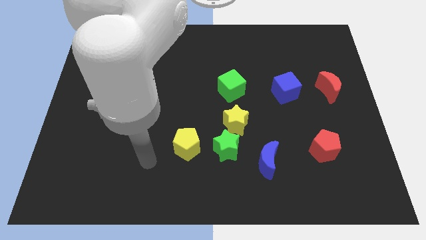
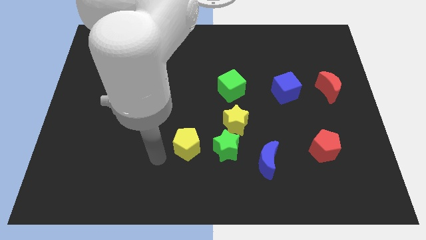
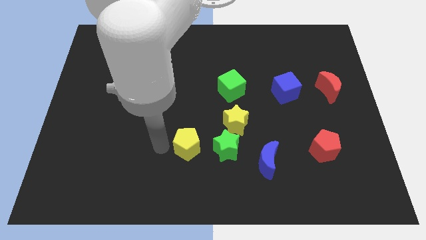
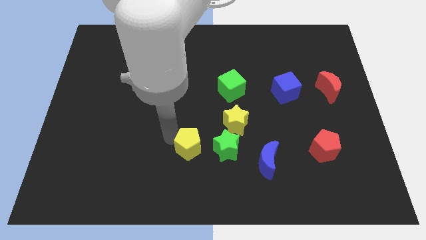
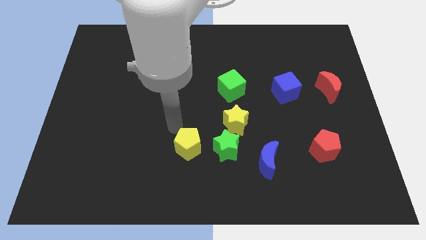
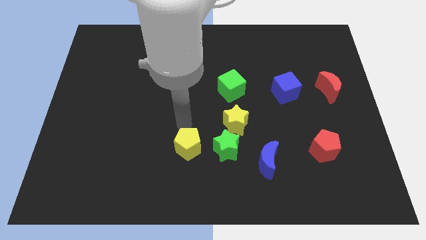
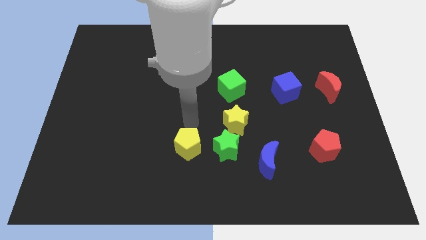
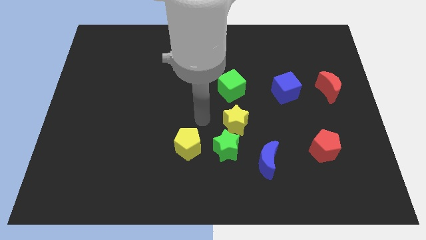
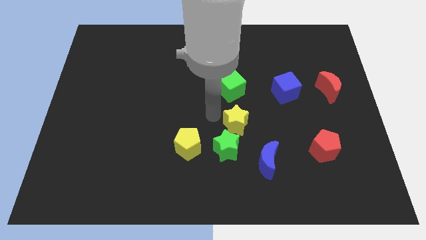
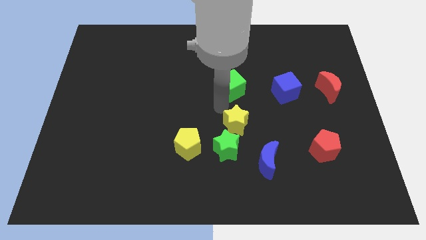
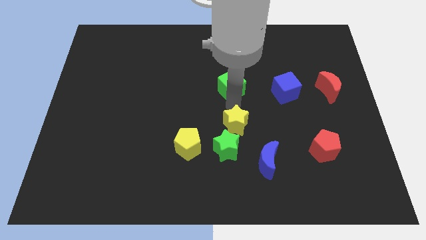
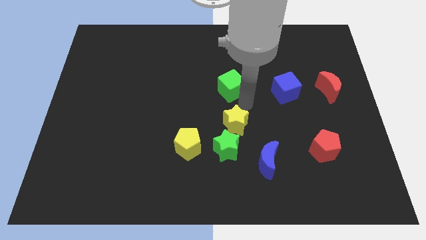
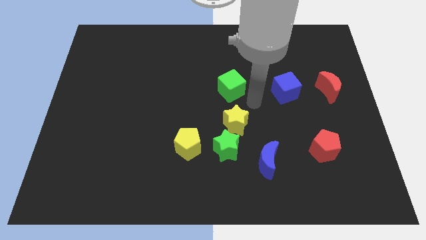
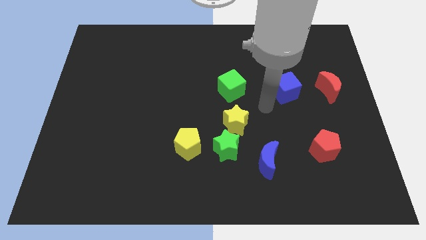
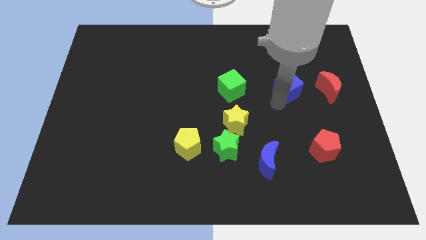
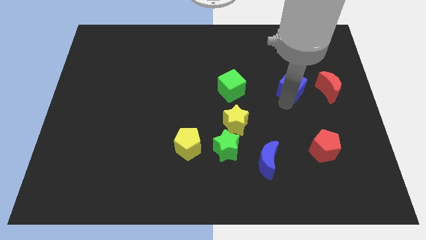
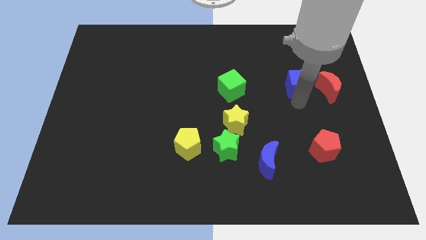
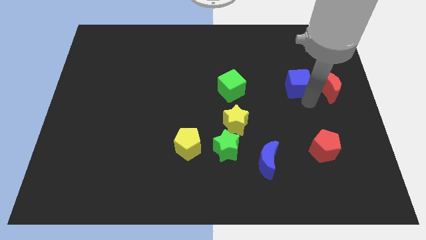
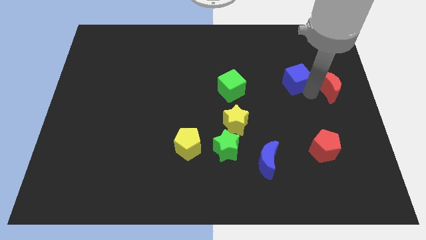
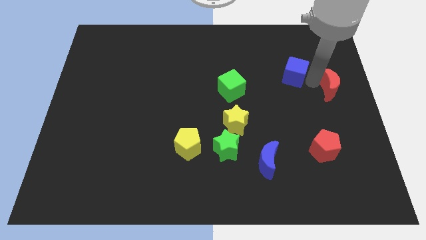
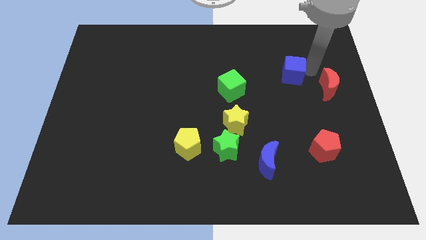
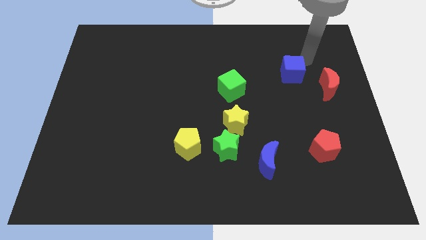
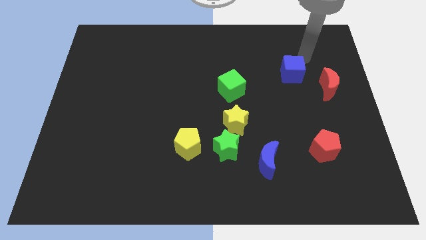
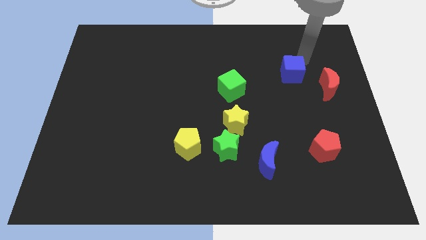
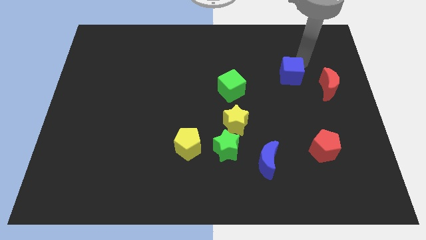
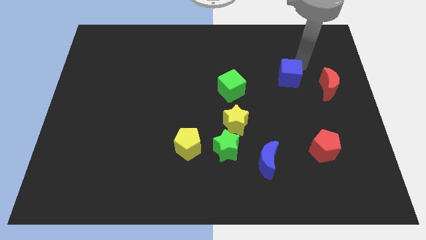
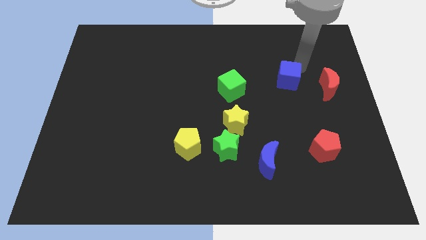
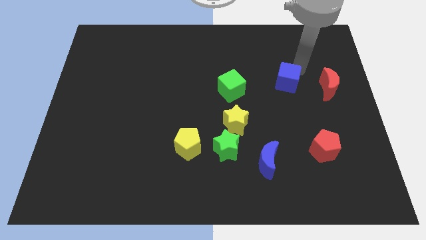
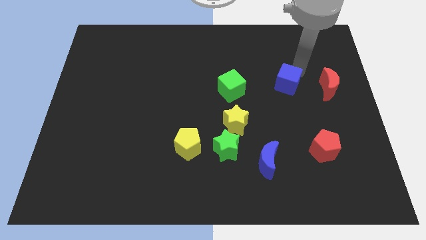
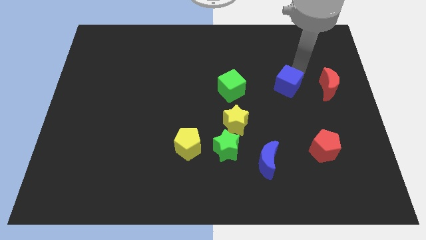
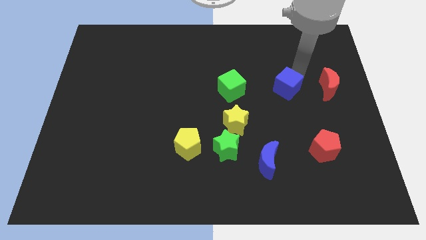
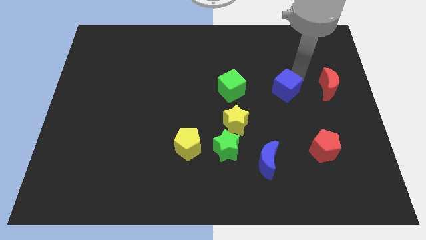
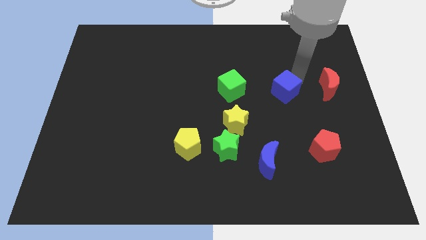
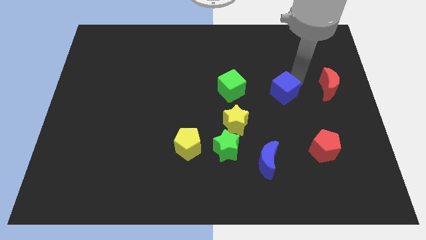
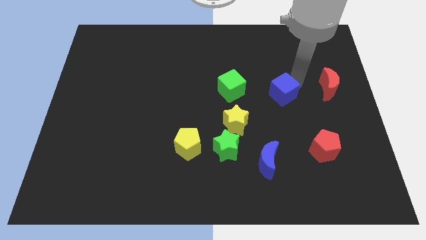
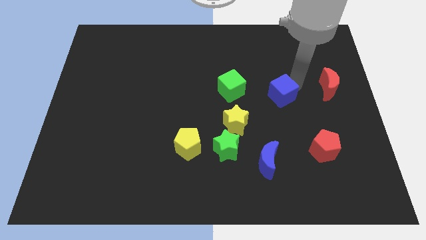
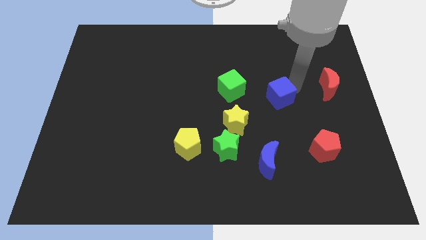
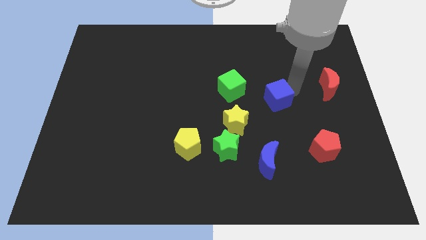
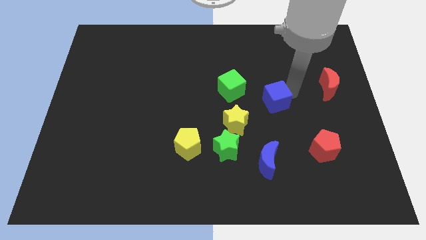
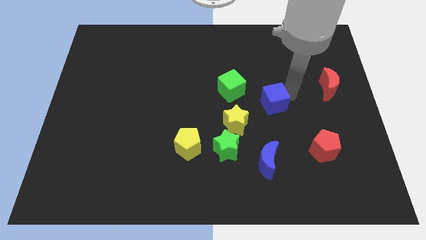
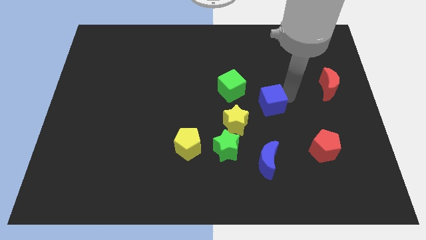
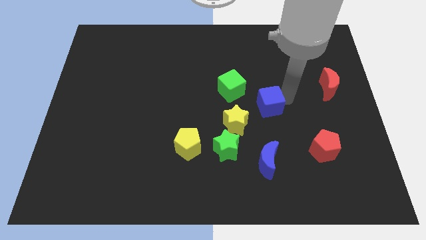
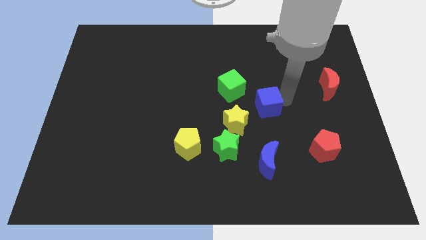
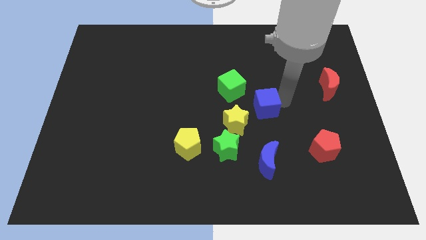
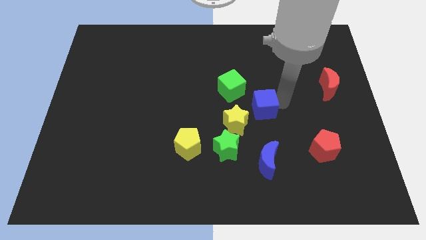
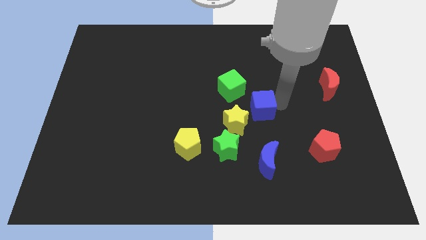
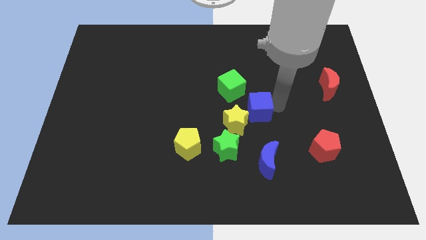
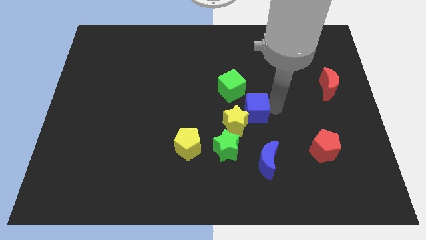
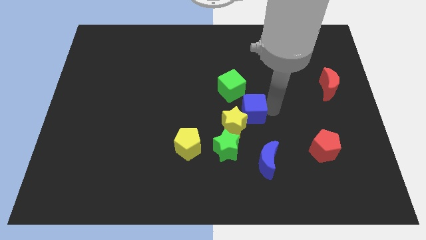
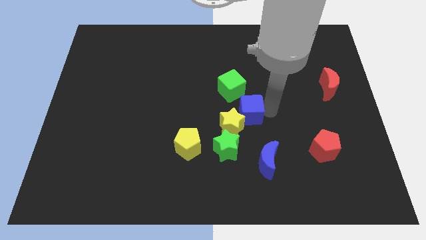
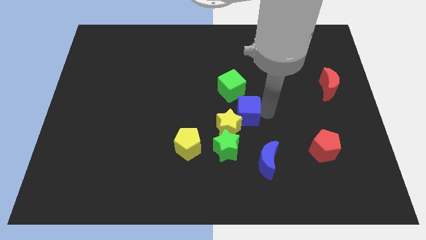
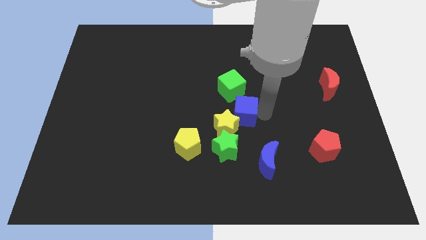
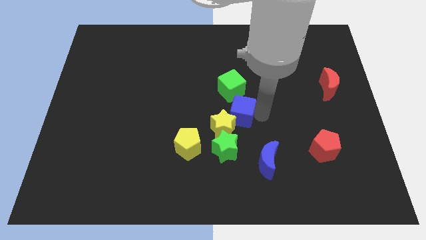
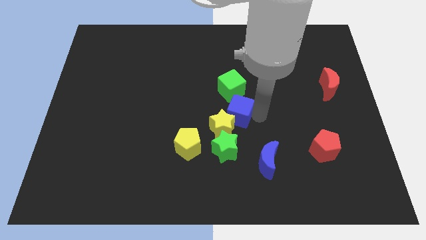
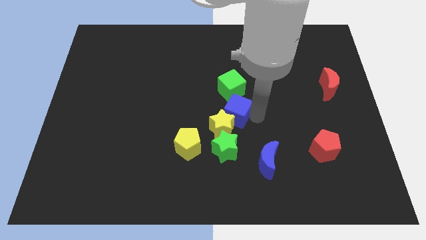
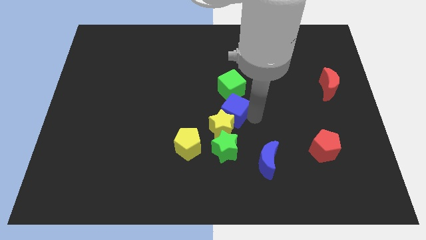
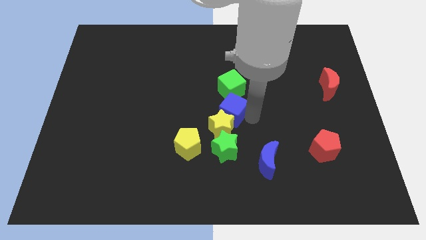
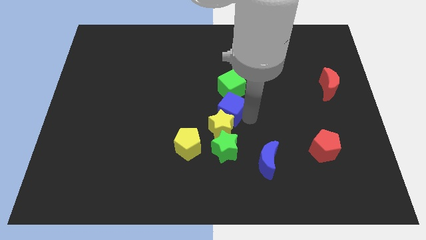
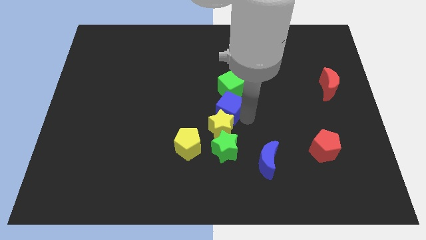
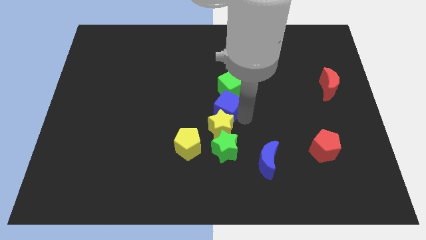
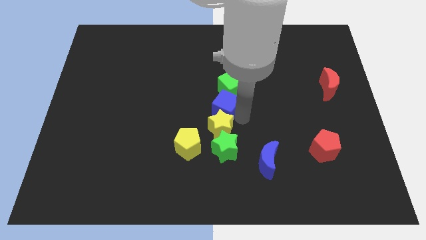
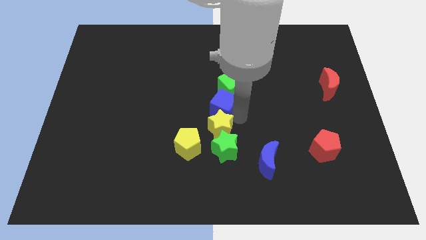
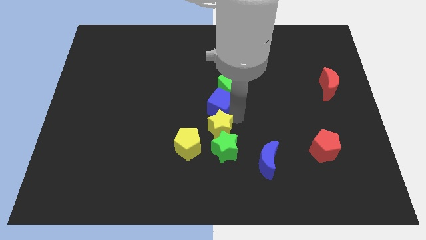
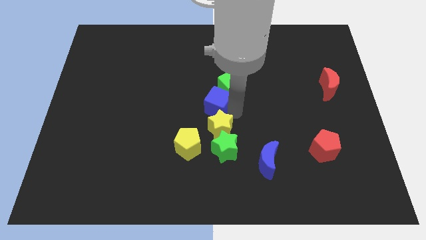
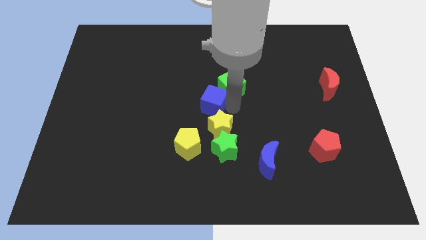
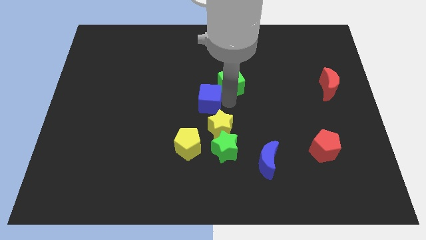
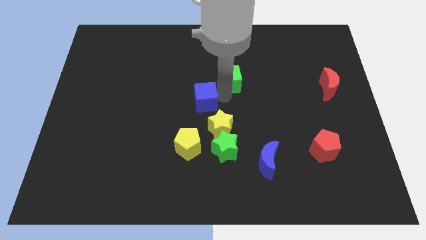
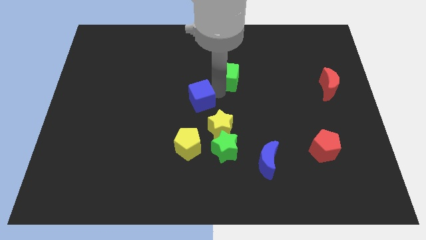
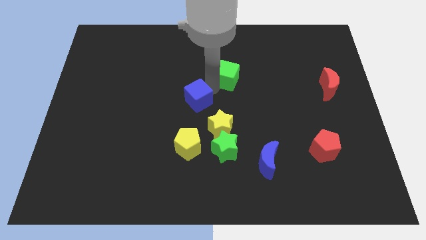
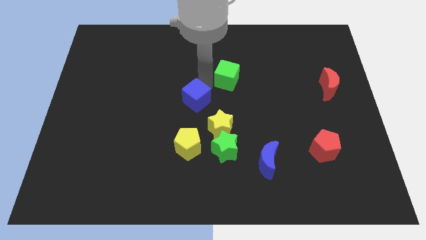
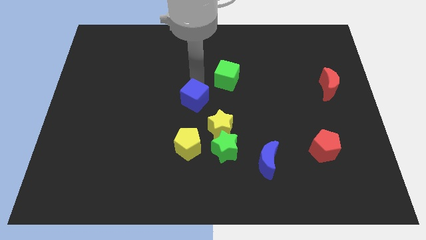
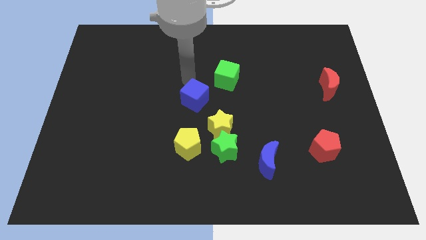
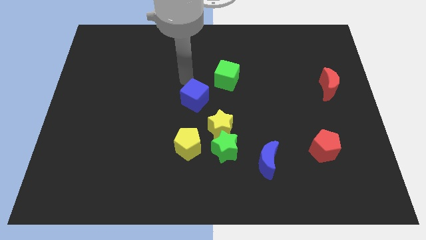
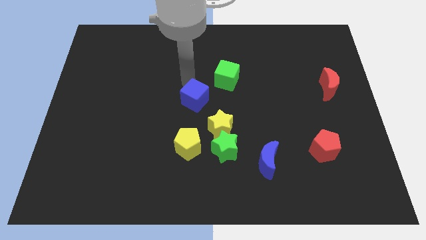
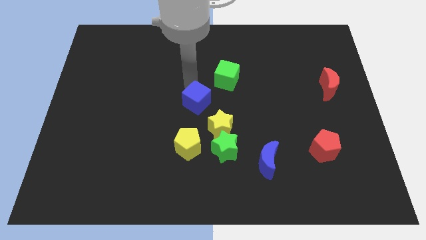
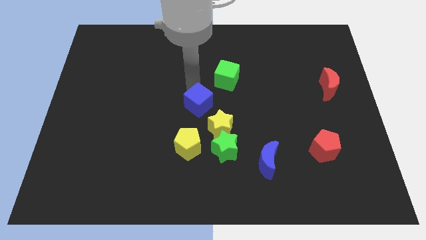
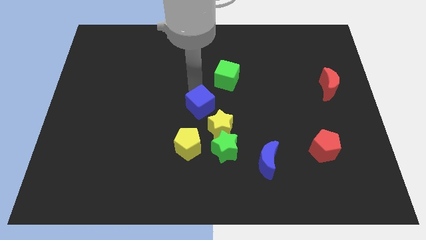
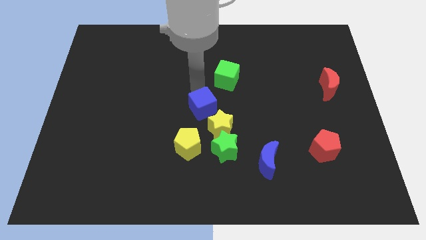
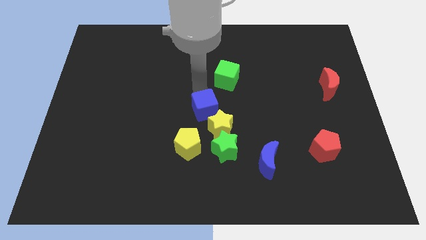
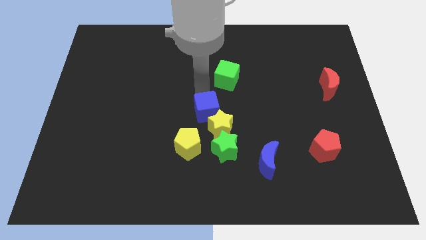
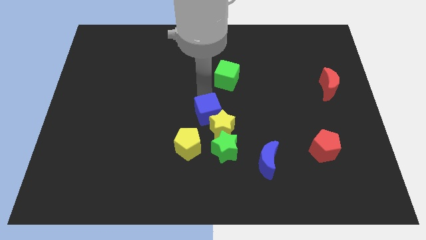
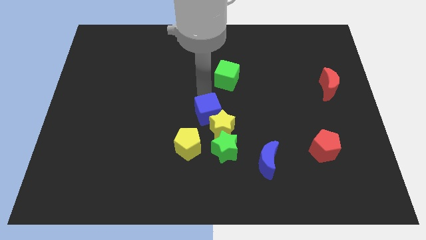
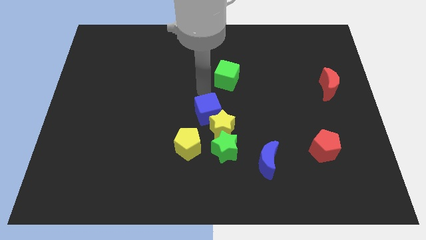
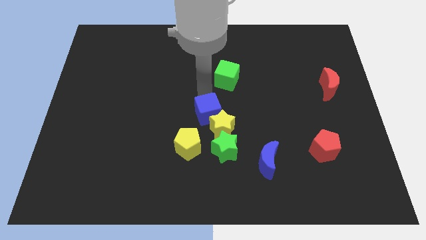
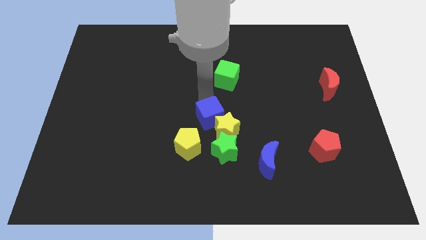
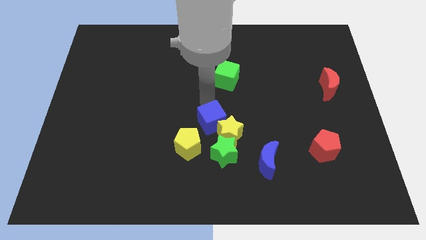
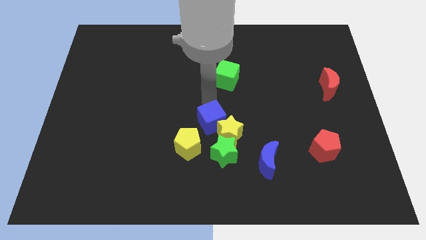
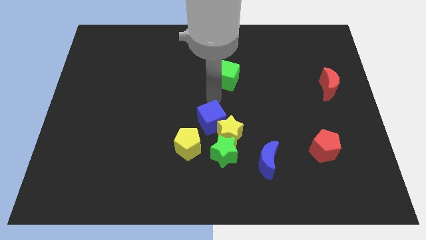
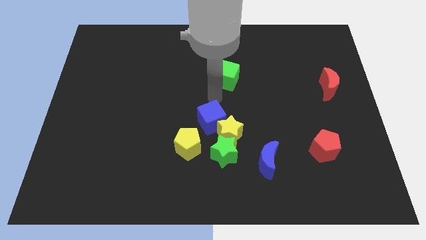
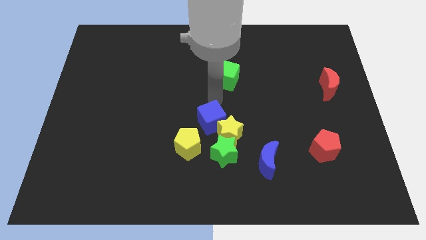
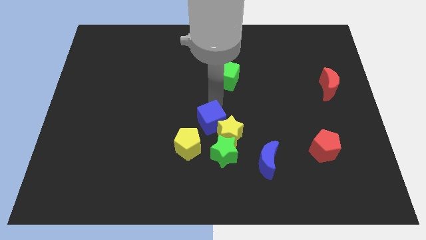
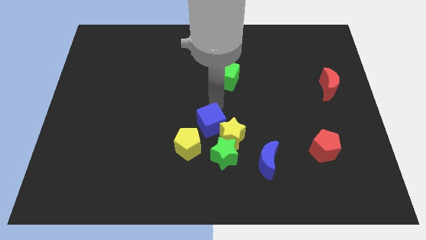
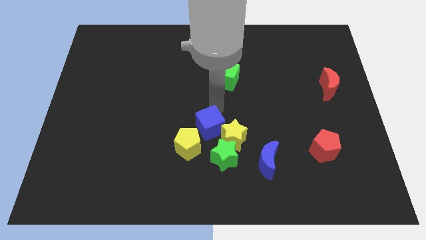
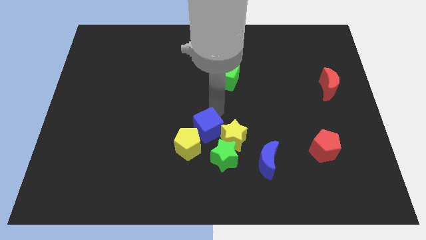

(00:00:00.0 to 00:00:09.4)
move the blue cube downwards and left
